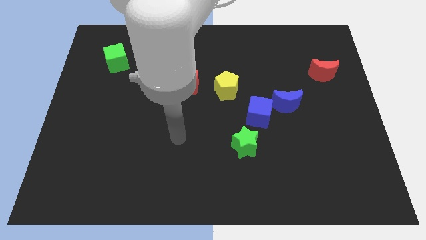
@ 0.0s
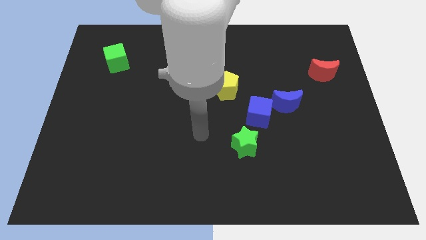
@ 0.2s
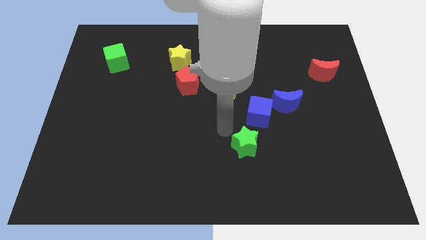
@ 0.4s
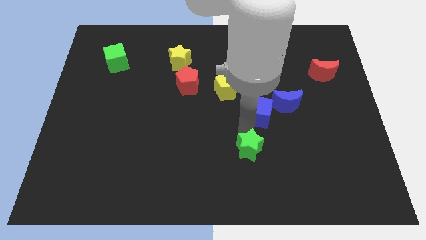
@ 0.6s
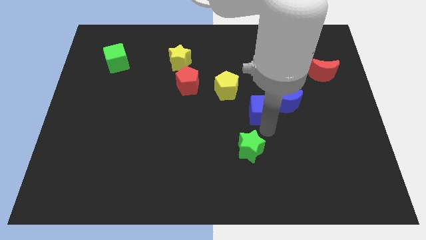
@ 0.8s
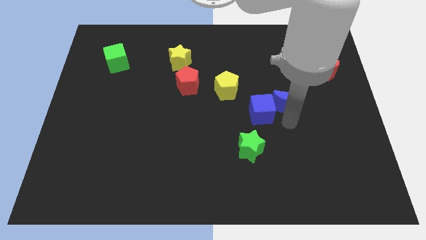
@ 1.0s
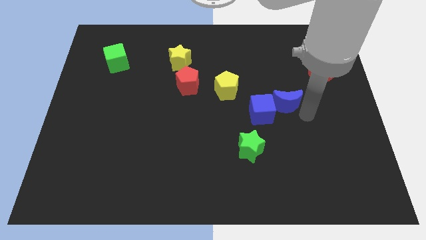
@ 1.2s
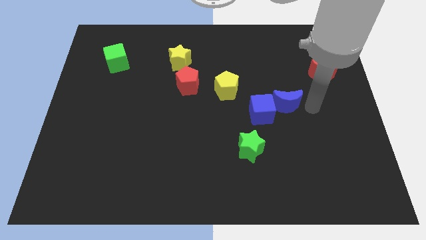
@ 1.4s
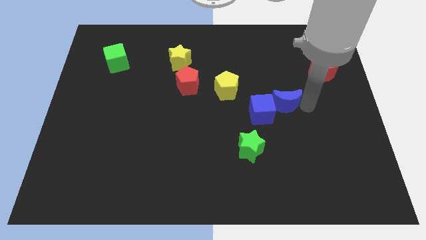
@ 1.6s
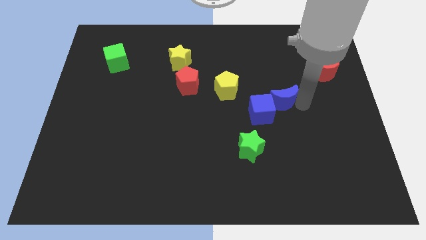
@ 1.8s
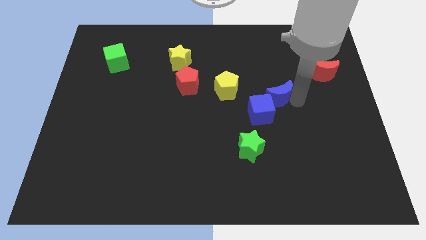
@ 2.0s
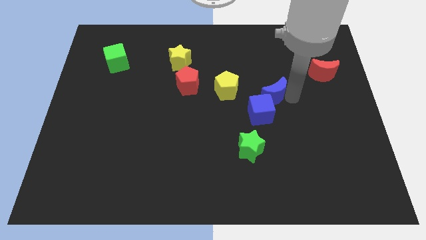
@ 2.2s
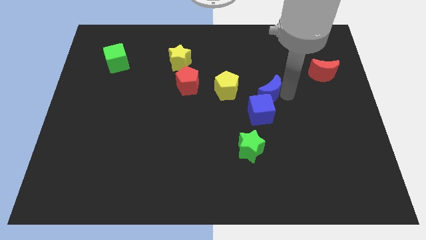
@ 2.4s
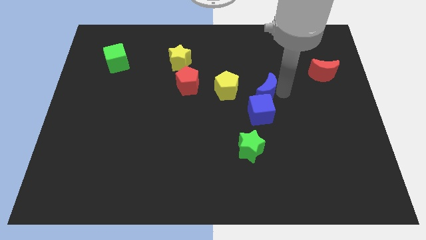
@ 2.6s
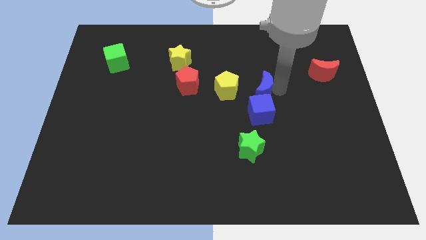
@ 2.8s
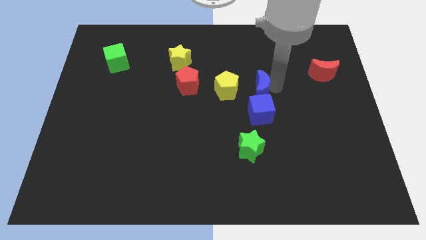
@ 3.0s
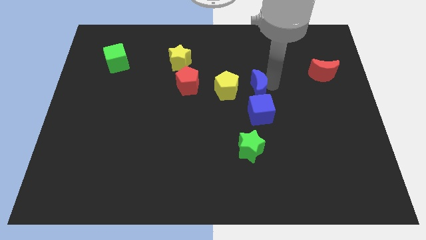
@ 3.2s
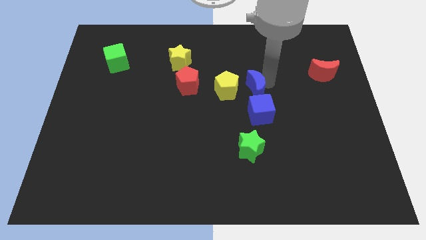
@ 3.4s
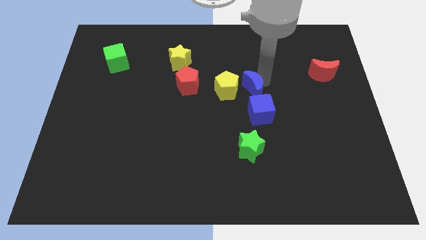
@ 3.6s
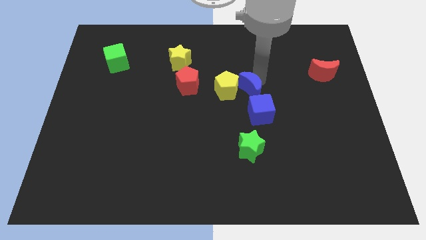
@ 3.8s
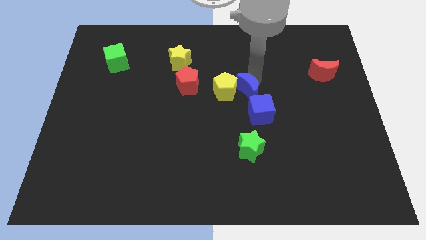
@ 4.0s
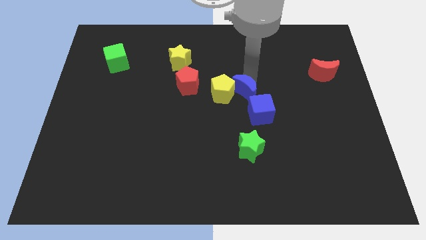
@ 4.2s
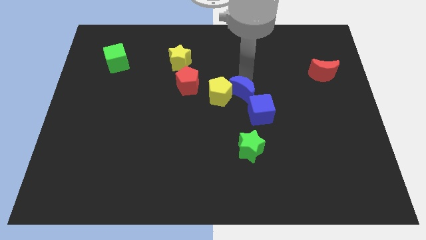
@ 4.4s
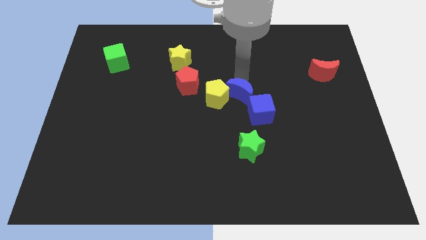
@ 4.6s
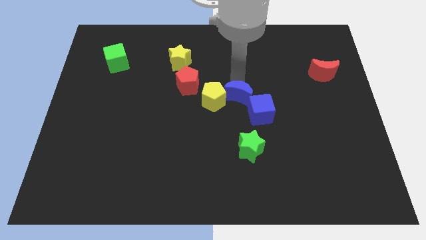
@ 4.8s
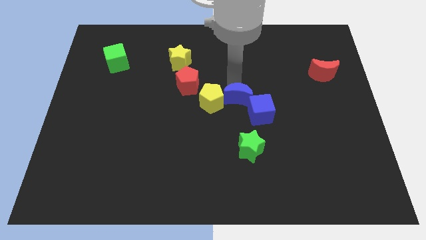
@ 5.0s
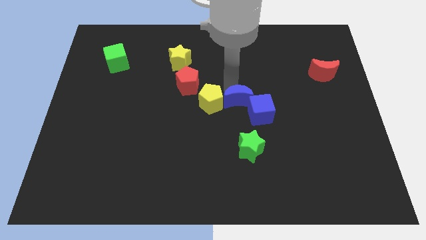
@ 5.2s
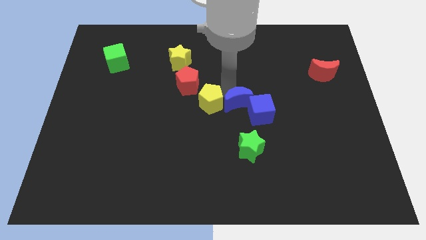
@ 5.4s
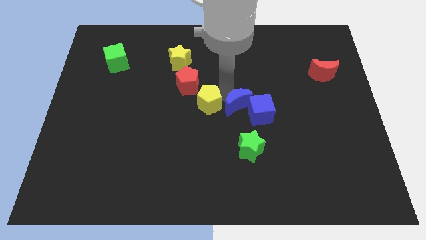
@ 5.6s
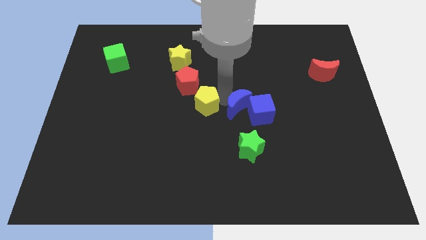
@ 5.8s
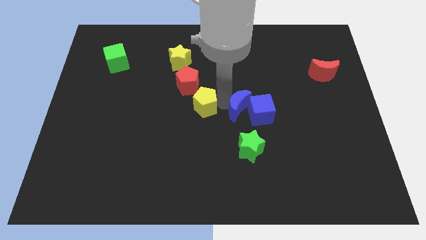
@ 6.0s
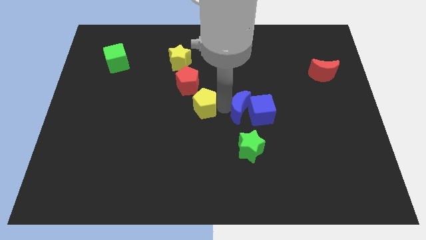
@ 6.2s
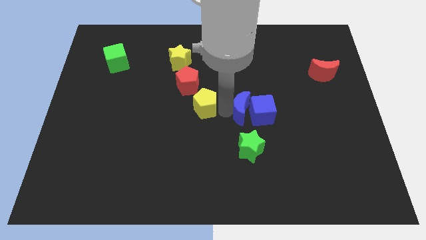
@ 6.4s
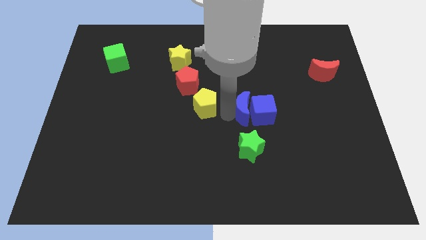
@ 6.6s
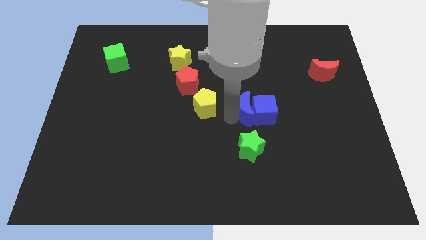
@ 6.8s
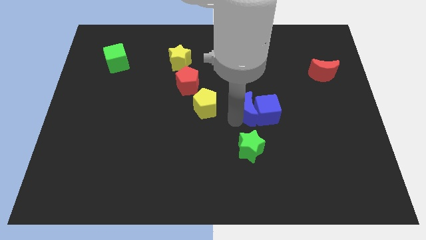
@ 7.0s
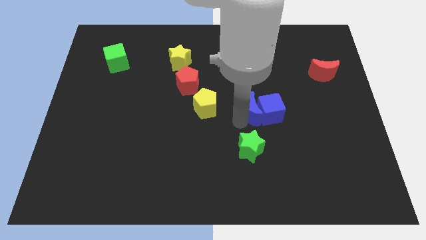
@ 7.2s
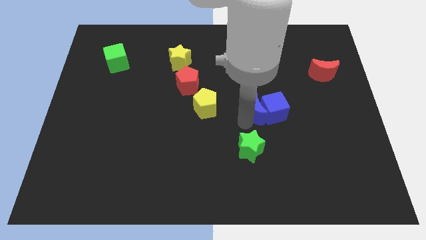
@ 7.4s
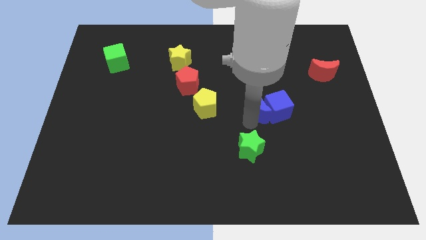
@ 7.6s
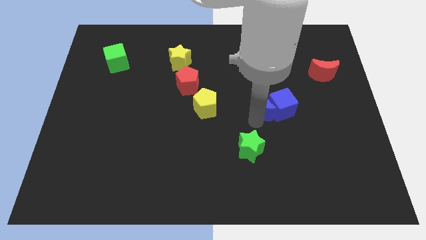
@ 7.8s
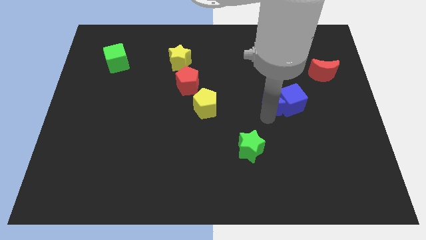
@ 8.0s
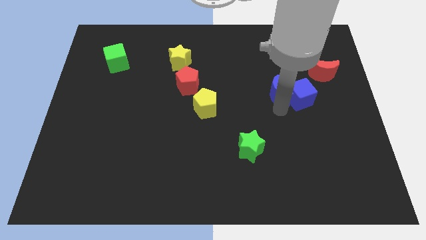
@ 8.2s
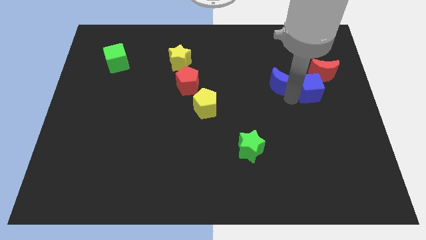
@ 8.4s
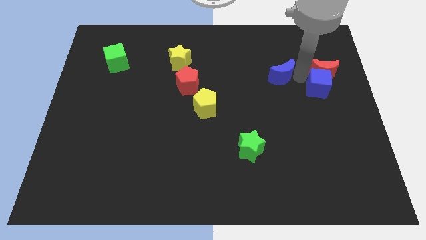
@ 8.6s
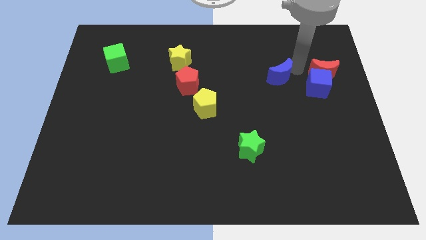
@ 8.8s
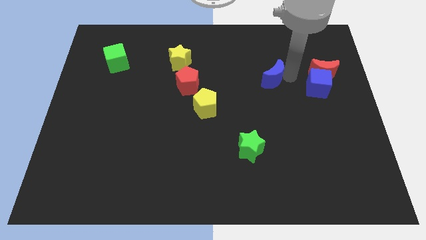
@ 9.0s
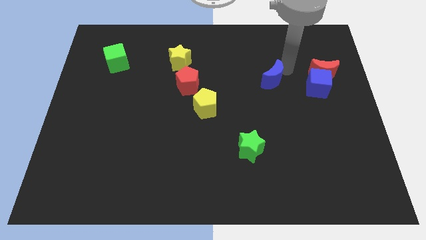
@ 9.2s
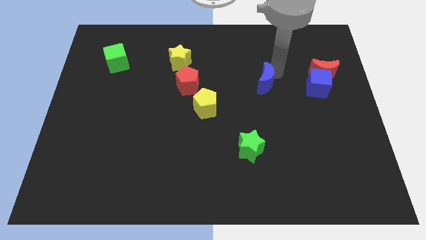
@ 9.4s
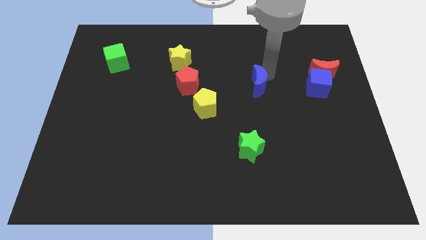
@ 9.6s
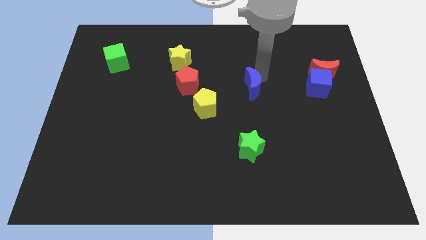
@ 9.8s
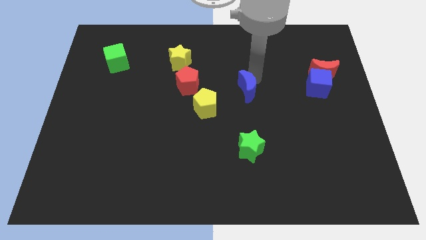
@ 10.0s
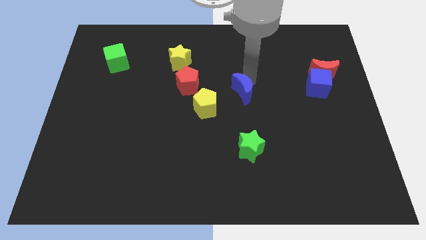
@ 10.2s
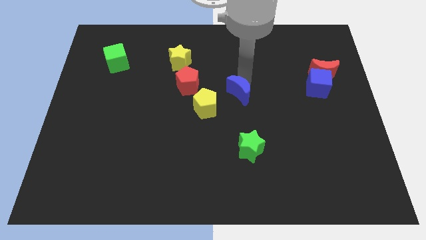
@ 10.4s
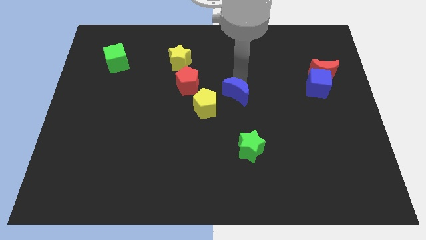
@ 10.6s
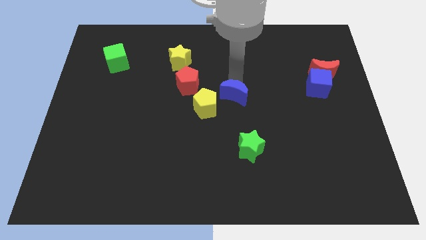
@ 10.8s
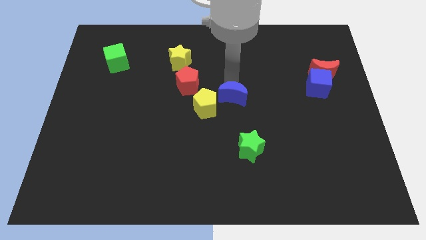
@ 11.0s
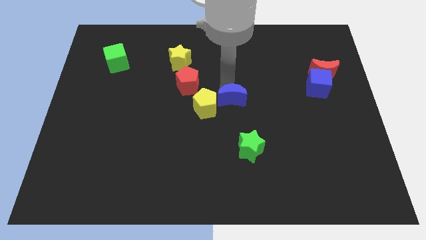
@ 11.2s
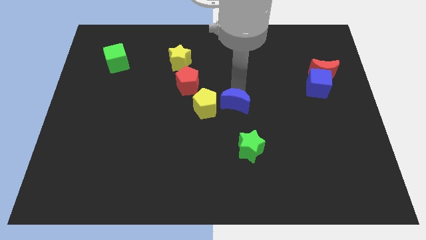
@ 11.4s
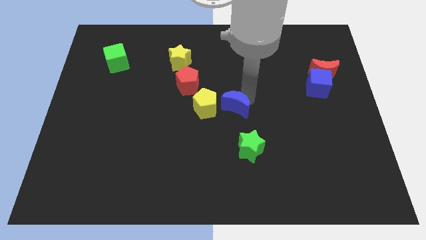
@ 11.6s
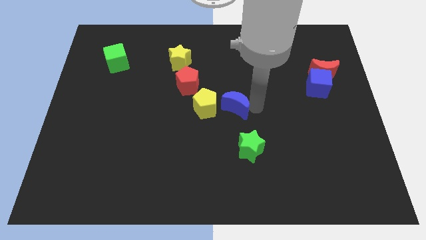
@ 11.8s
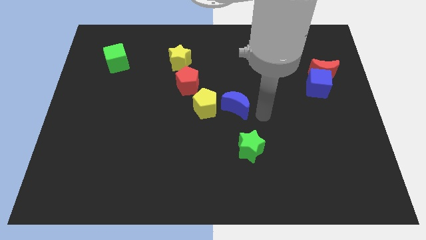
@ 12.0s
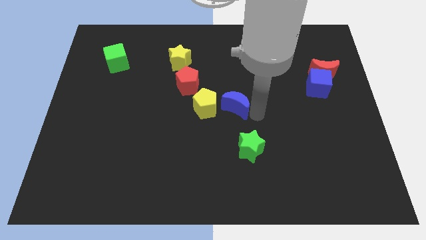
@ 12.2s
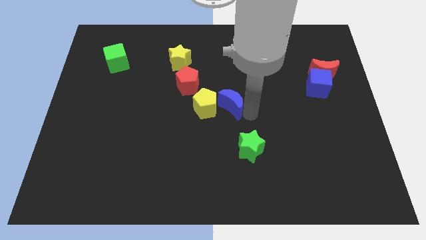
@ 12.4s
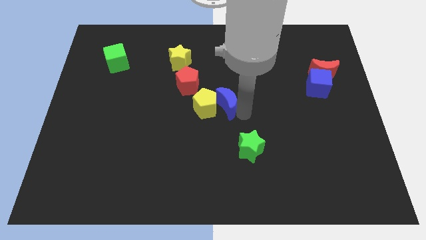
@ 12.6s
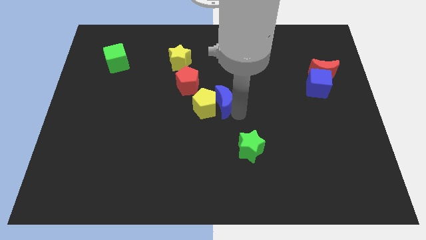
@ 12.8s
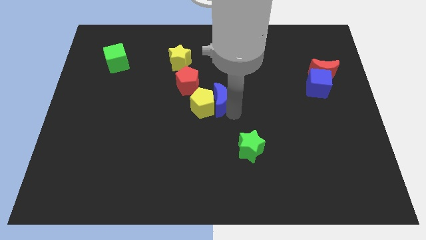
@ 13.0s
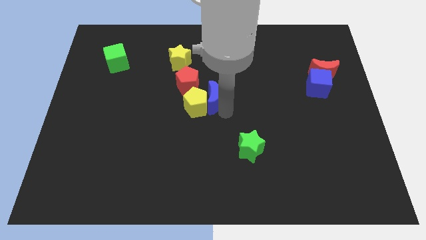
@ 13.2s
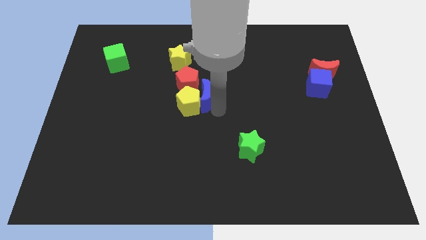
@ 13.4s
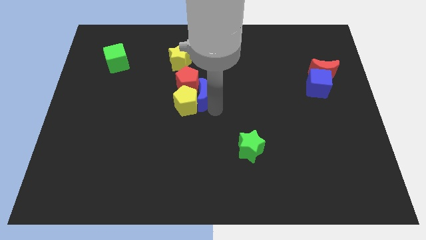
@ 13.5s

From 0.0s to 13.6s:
put the blue moon close to the red pentagon

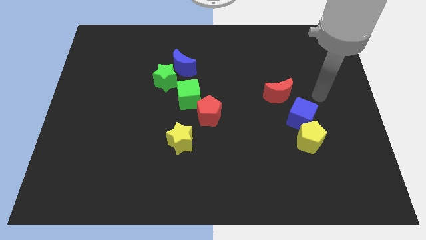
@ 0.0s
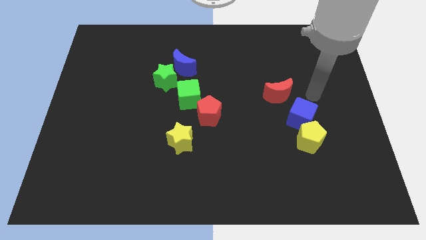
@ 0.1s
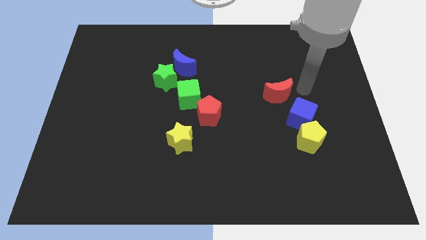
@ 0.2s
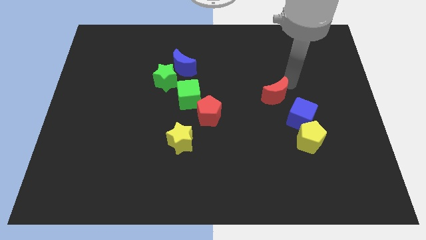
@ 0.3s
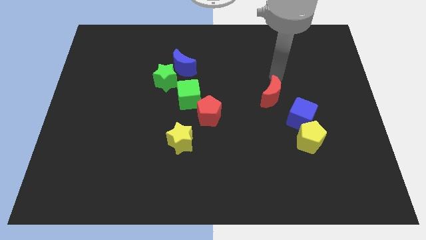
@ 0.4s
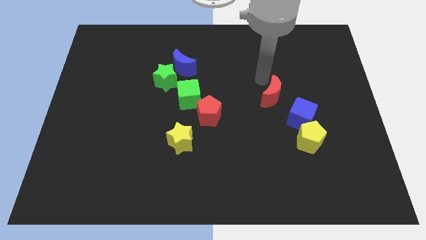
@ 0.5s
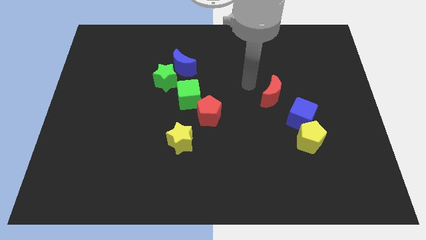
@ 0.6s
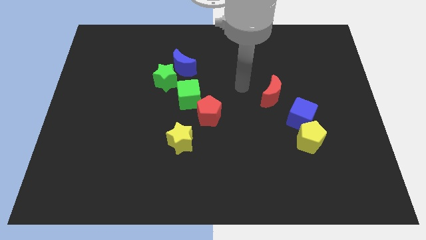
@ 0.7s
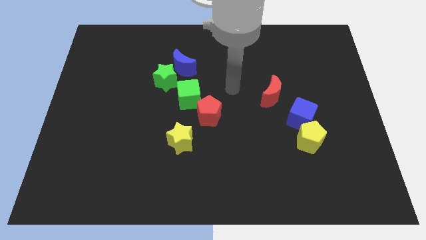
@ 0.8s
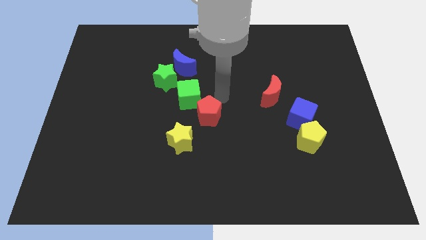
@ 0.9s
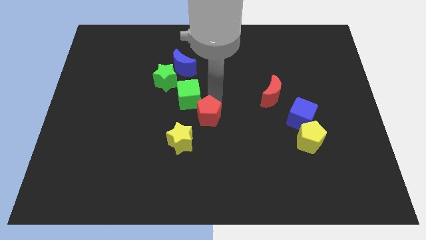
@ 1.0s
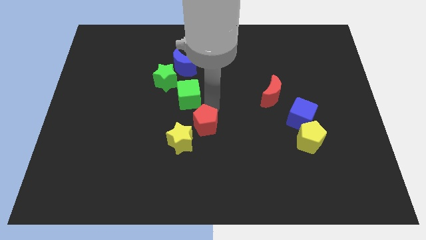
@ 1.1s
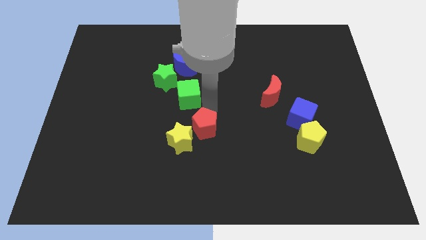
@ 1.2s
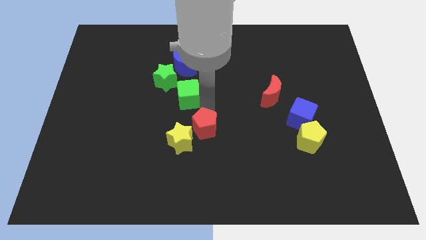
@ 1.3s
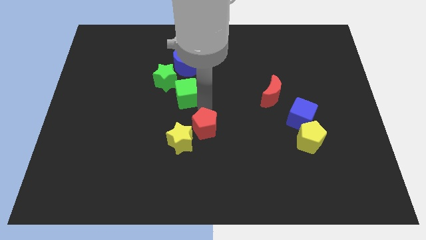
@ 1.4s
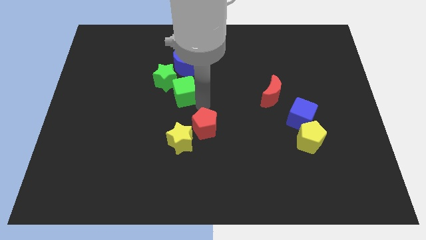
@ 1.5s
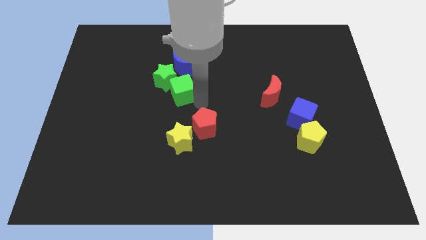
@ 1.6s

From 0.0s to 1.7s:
put the green cube close to the green star
